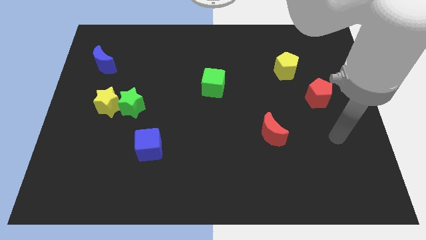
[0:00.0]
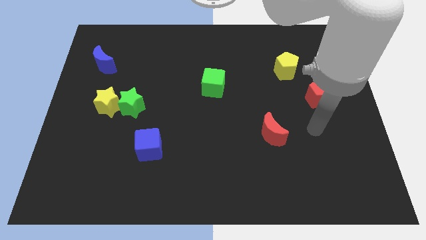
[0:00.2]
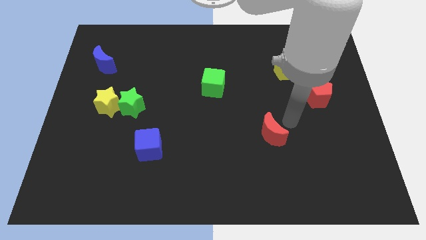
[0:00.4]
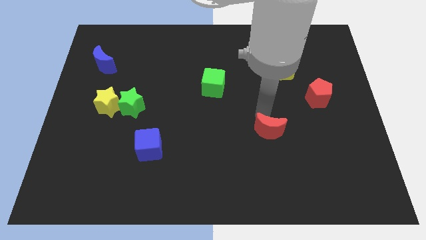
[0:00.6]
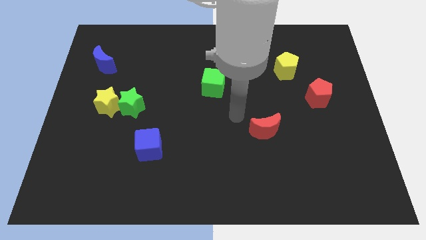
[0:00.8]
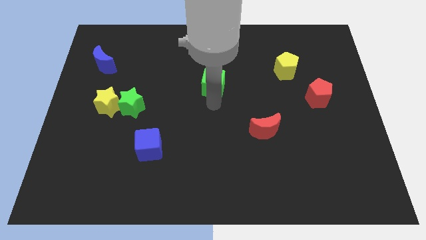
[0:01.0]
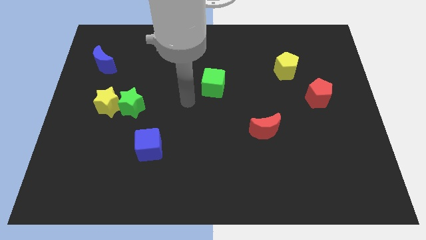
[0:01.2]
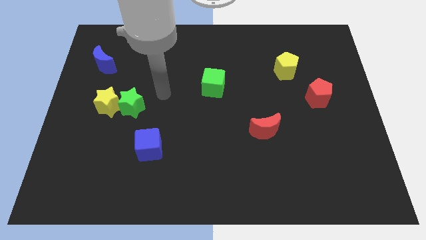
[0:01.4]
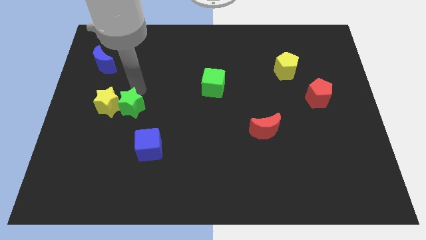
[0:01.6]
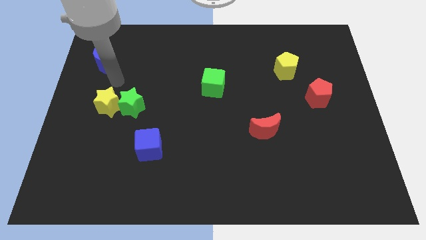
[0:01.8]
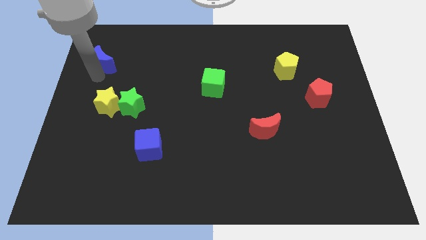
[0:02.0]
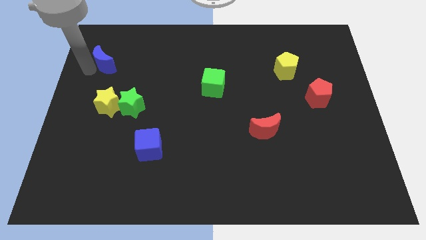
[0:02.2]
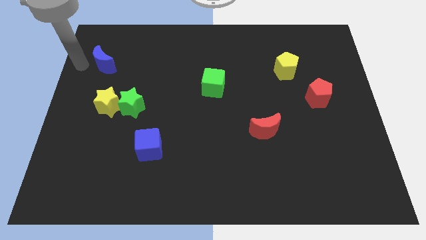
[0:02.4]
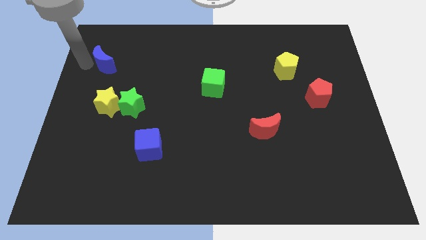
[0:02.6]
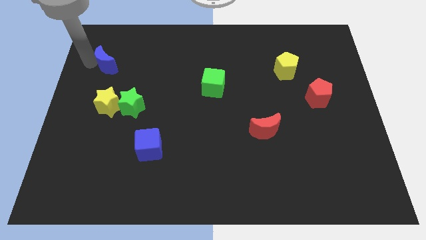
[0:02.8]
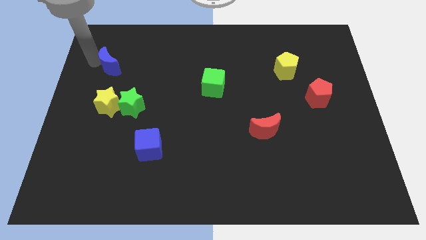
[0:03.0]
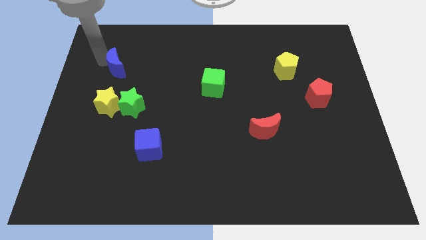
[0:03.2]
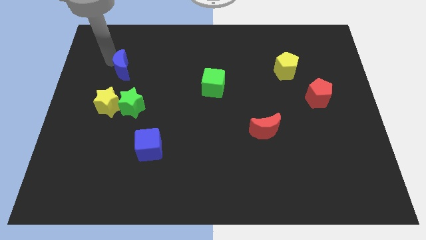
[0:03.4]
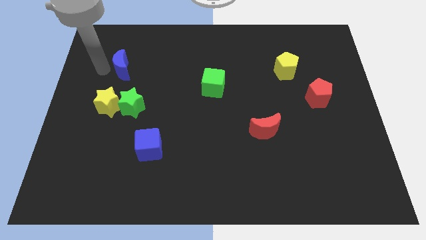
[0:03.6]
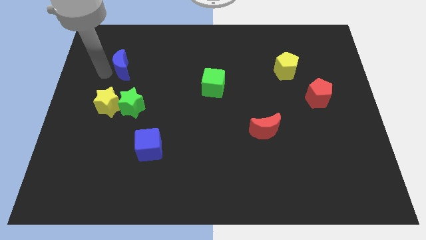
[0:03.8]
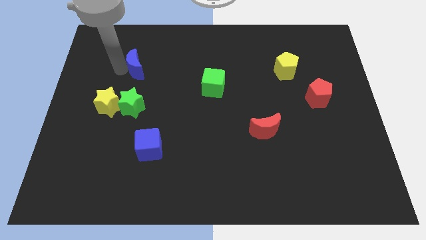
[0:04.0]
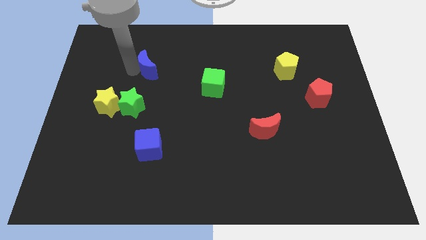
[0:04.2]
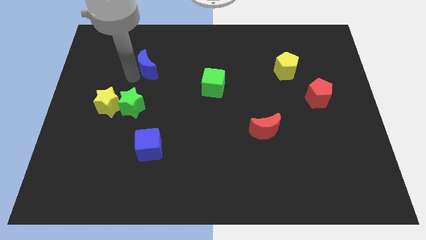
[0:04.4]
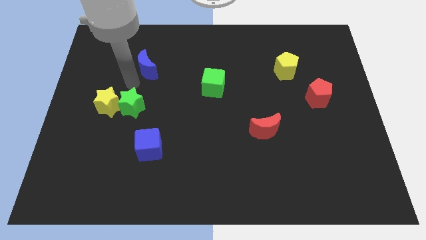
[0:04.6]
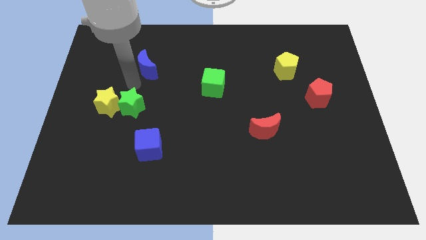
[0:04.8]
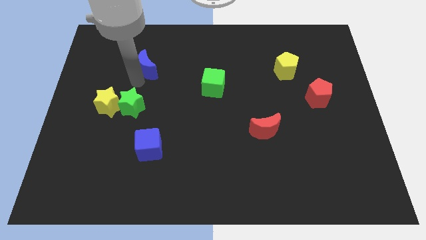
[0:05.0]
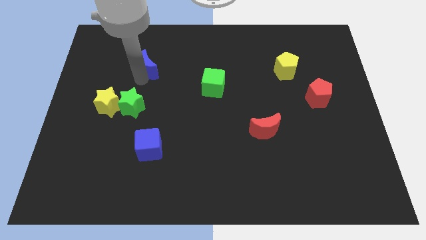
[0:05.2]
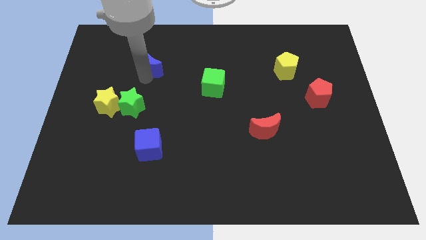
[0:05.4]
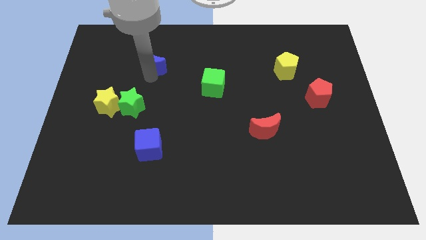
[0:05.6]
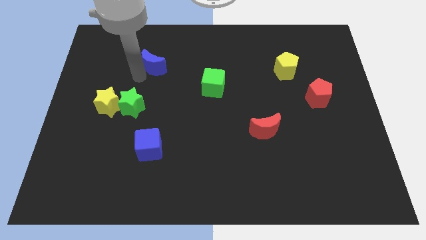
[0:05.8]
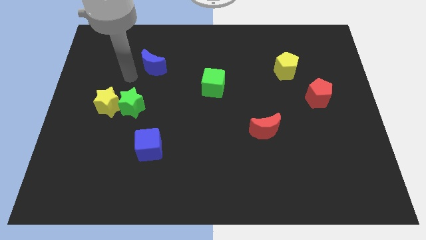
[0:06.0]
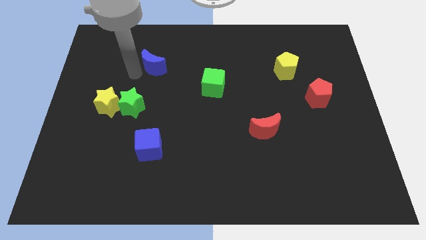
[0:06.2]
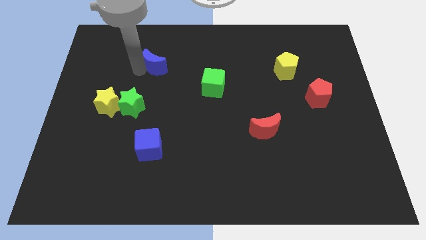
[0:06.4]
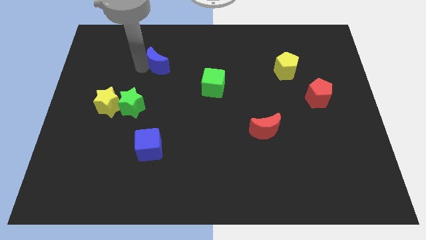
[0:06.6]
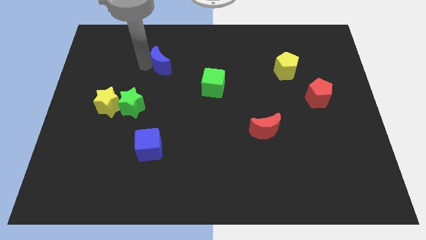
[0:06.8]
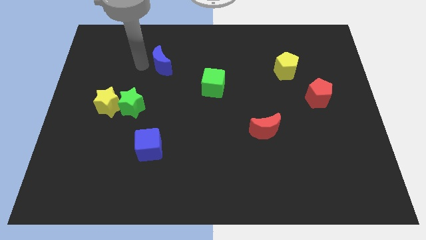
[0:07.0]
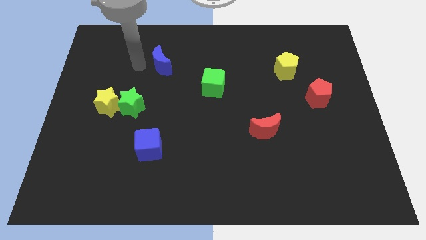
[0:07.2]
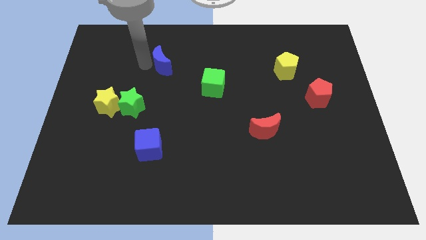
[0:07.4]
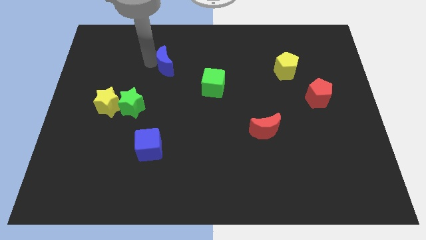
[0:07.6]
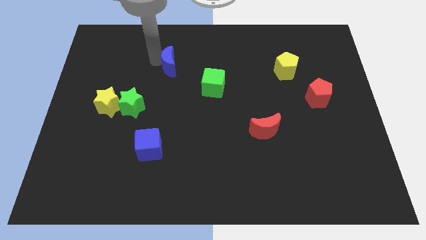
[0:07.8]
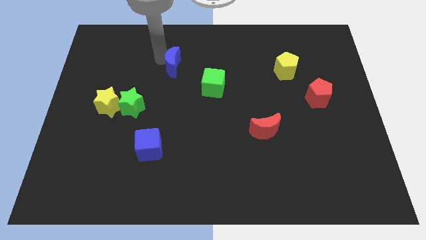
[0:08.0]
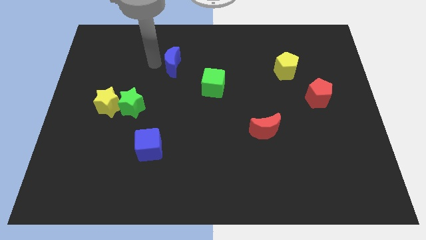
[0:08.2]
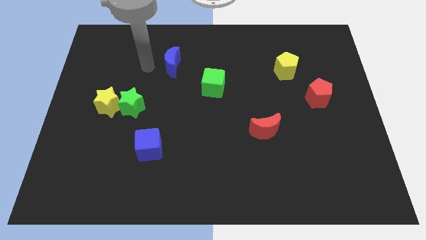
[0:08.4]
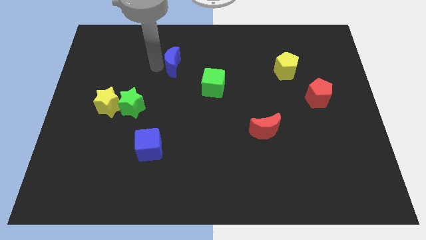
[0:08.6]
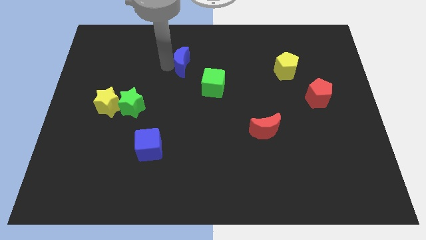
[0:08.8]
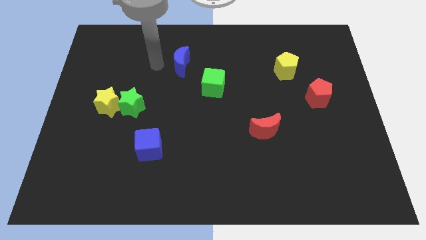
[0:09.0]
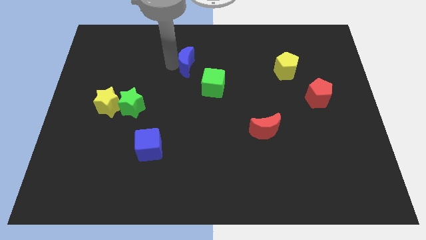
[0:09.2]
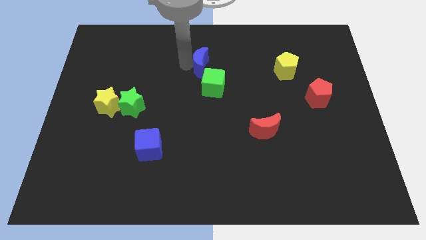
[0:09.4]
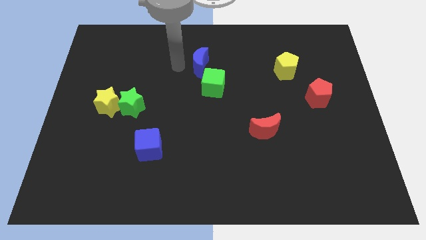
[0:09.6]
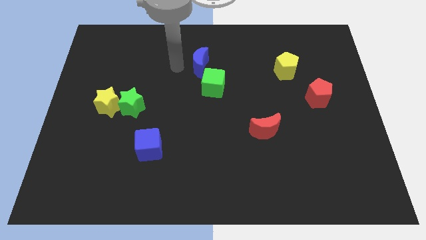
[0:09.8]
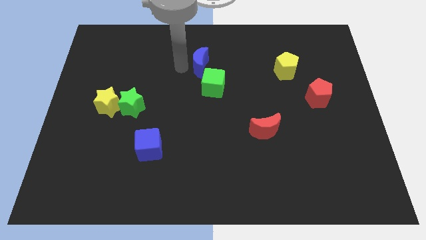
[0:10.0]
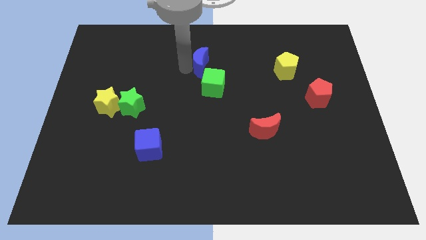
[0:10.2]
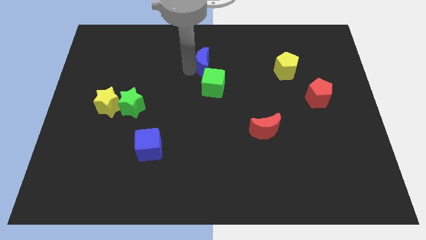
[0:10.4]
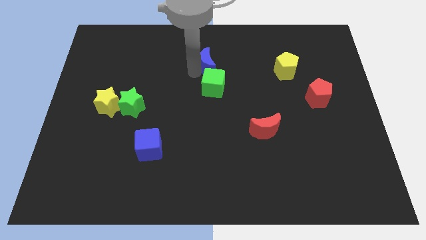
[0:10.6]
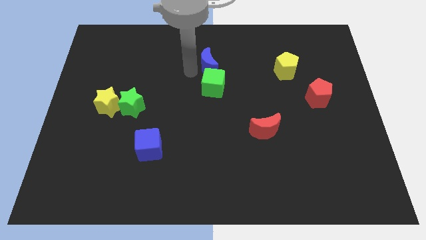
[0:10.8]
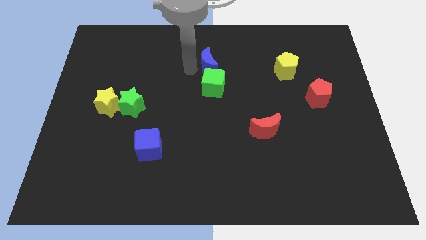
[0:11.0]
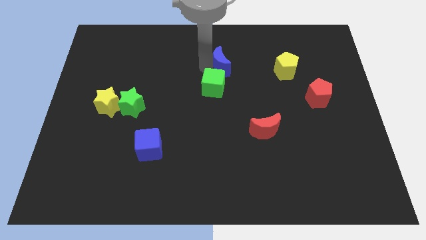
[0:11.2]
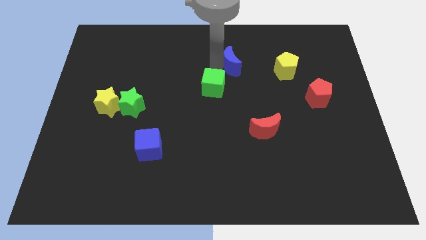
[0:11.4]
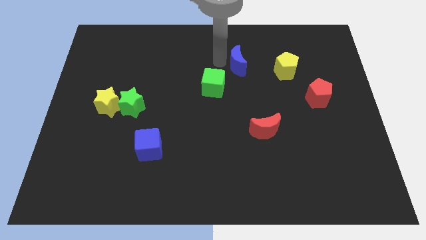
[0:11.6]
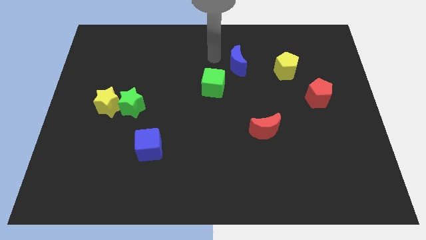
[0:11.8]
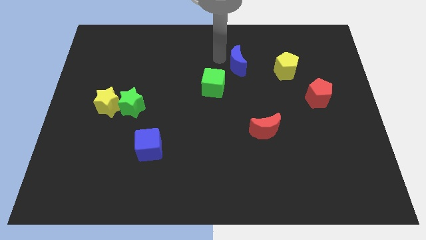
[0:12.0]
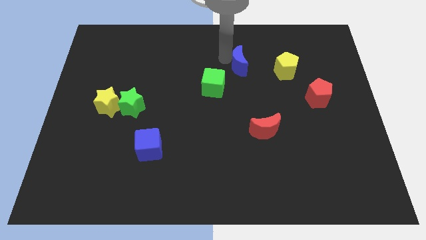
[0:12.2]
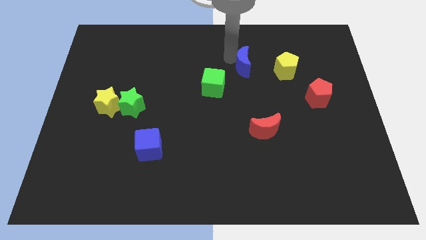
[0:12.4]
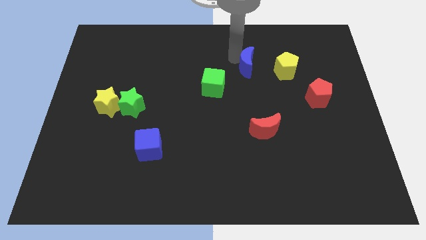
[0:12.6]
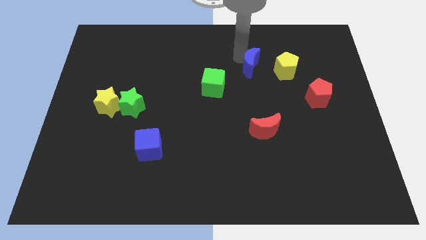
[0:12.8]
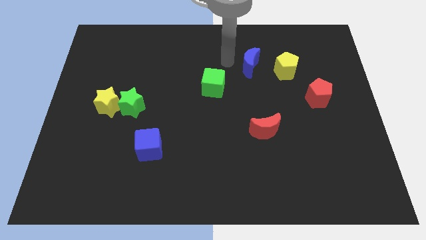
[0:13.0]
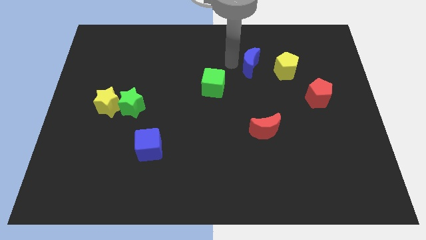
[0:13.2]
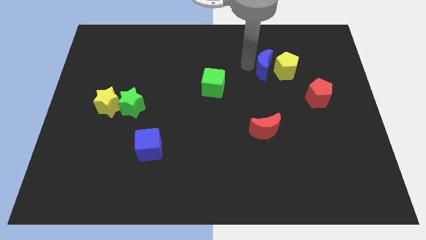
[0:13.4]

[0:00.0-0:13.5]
slide the blue moon close to the yellow pentagon
